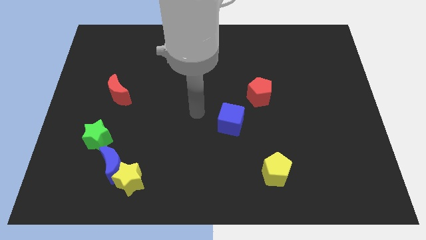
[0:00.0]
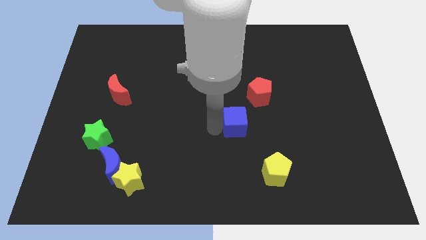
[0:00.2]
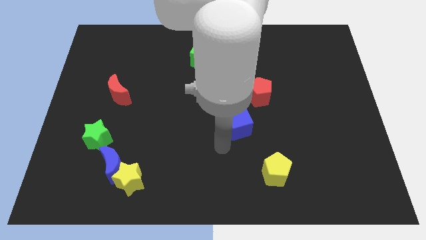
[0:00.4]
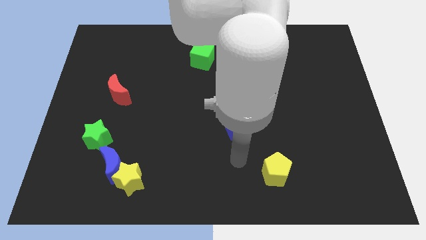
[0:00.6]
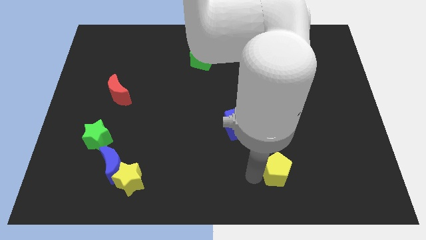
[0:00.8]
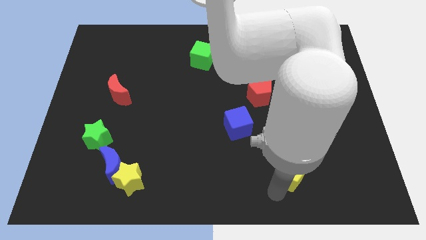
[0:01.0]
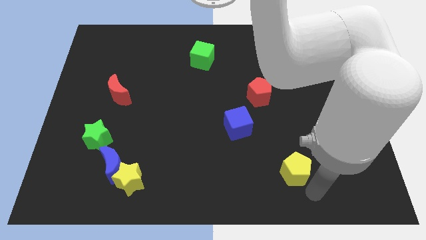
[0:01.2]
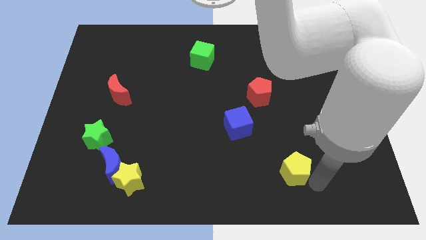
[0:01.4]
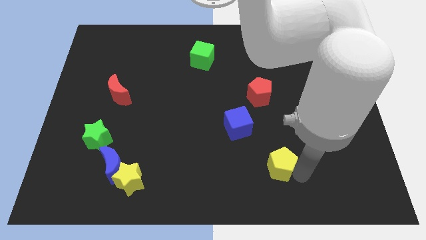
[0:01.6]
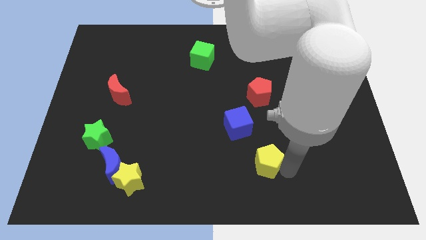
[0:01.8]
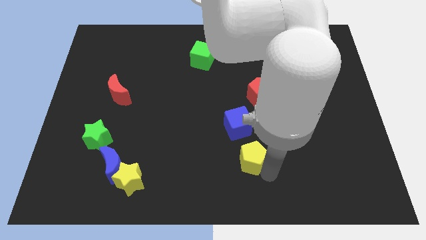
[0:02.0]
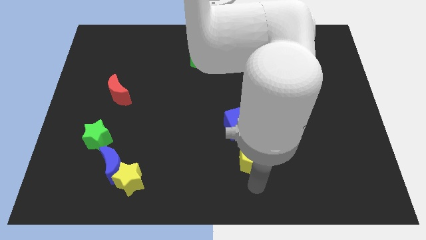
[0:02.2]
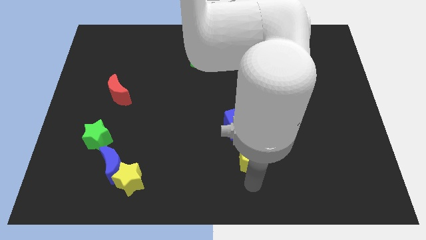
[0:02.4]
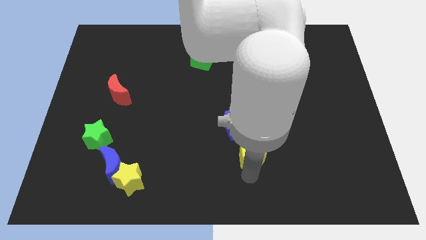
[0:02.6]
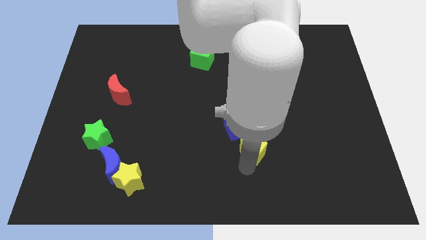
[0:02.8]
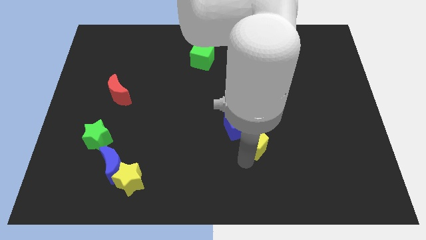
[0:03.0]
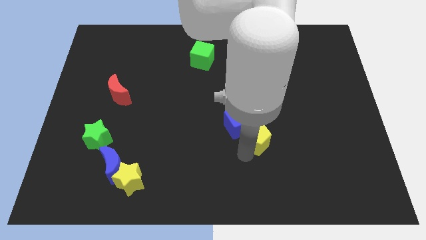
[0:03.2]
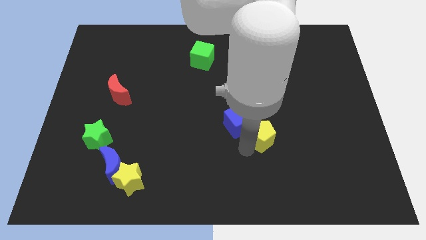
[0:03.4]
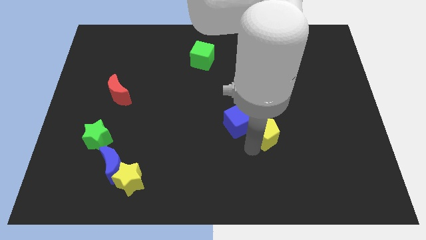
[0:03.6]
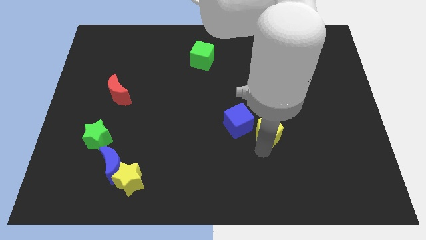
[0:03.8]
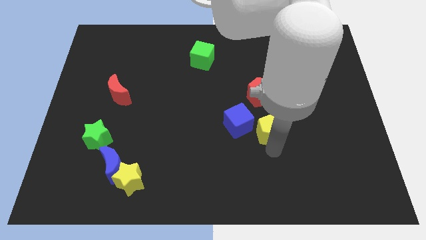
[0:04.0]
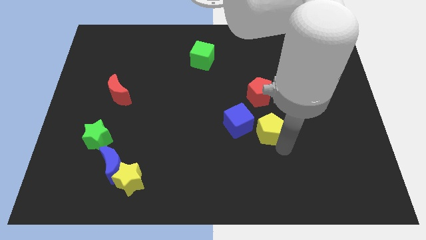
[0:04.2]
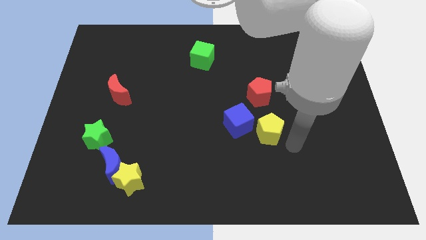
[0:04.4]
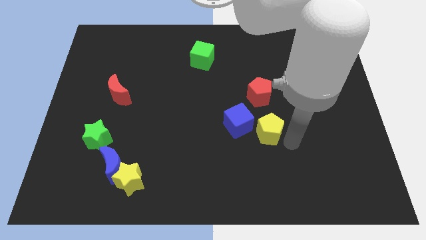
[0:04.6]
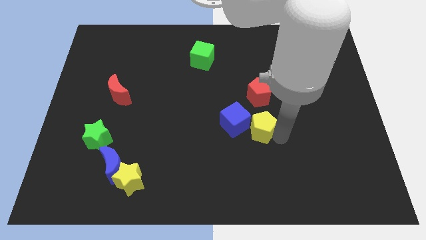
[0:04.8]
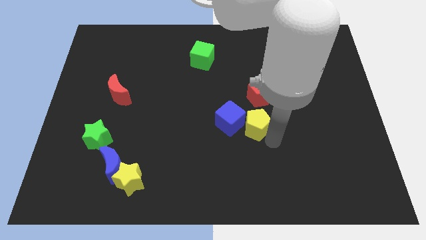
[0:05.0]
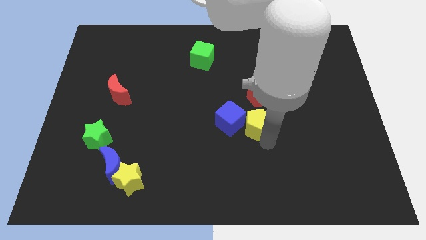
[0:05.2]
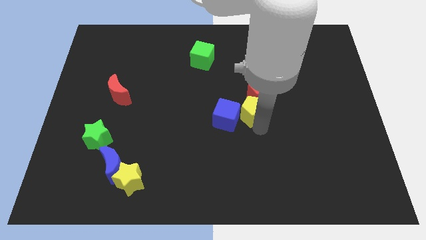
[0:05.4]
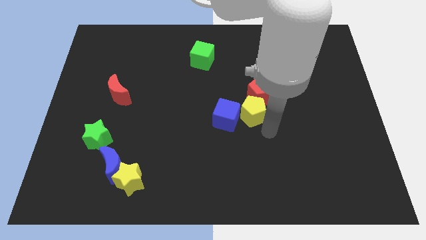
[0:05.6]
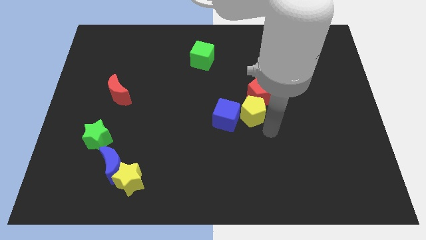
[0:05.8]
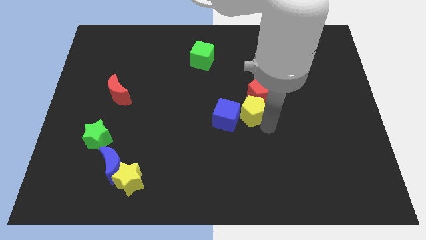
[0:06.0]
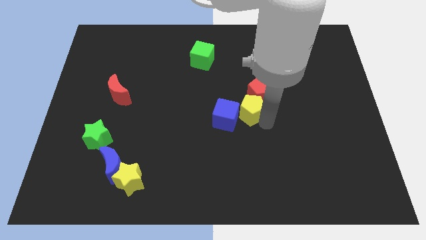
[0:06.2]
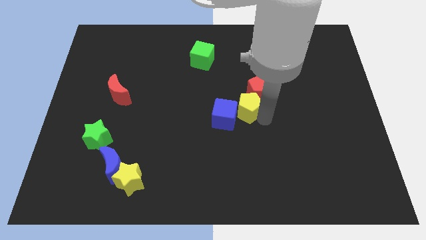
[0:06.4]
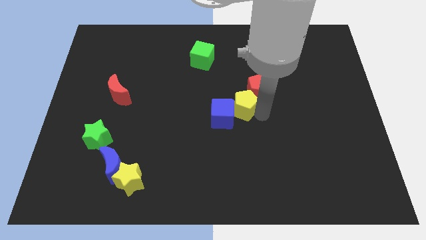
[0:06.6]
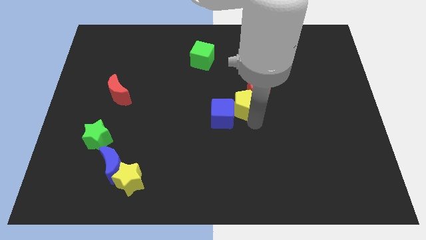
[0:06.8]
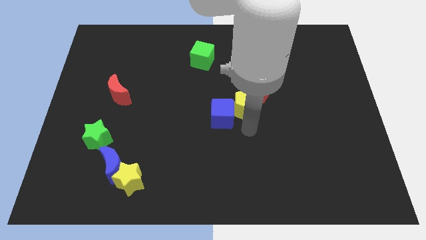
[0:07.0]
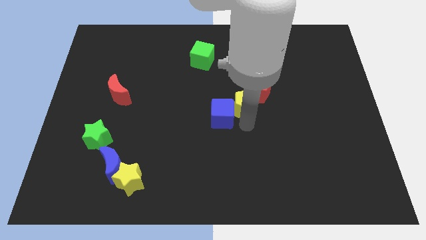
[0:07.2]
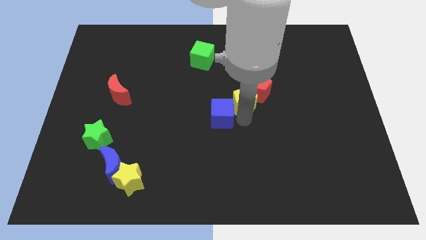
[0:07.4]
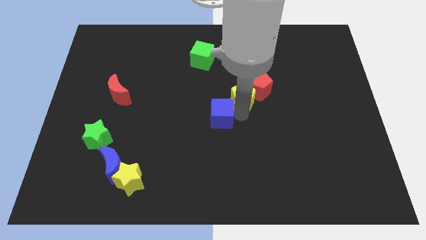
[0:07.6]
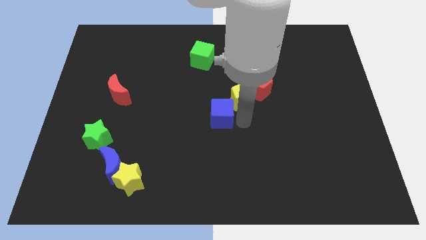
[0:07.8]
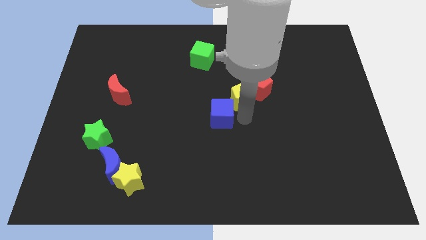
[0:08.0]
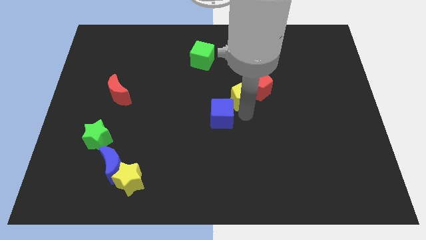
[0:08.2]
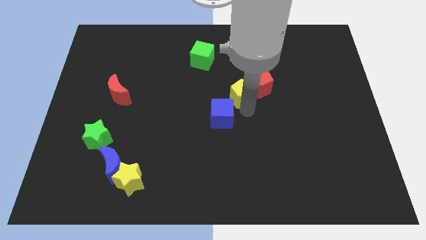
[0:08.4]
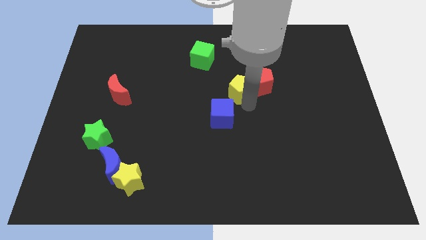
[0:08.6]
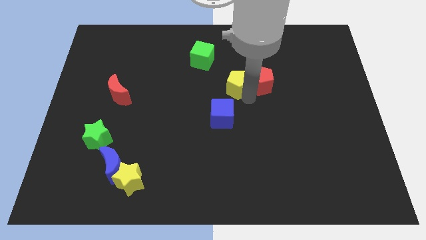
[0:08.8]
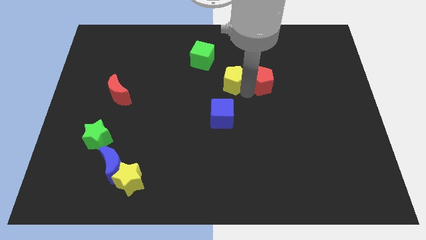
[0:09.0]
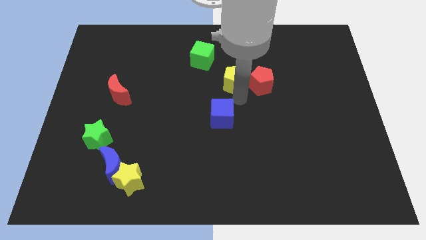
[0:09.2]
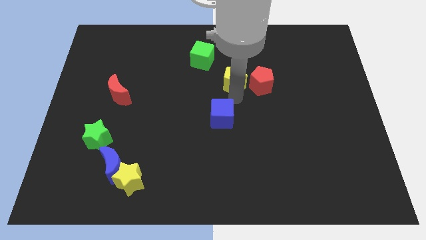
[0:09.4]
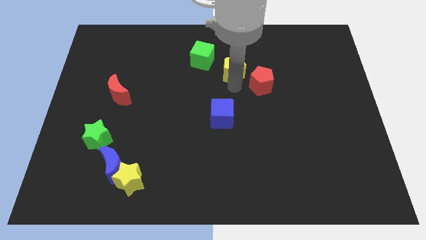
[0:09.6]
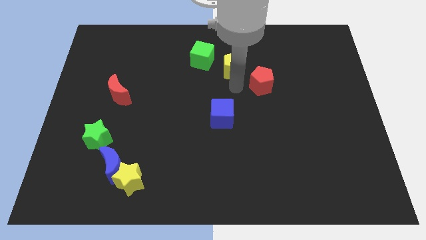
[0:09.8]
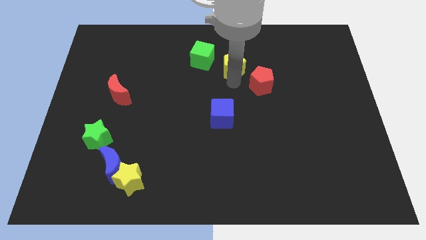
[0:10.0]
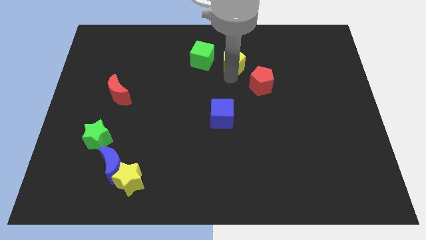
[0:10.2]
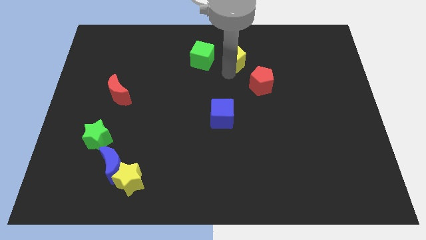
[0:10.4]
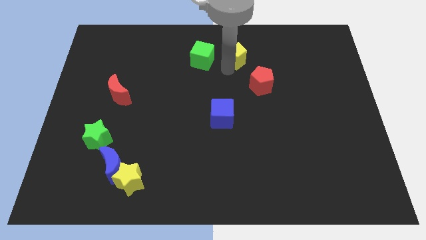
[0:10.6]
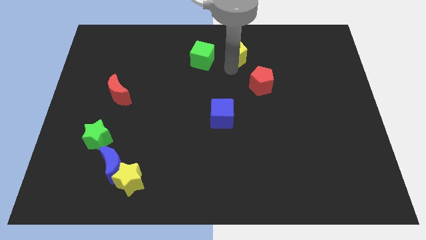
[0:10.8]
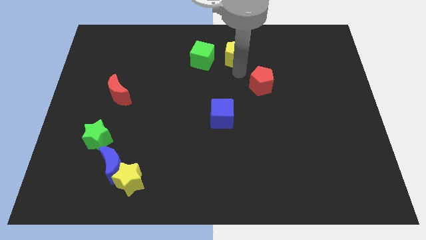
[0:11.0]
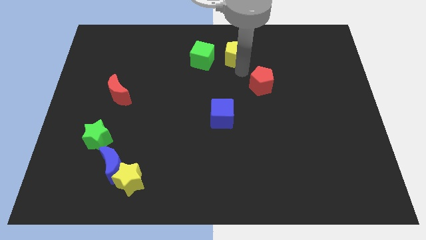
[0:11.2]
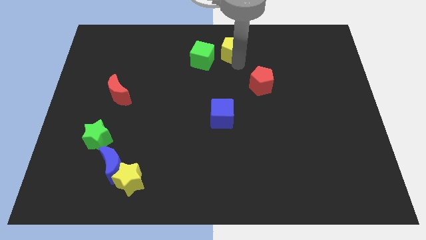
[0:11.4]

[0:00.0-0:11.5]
put the yellow pentagon to the top side

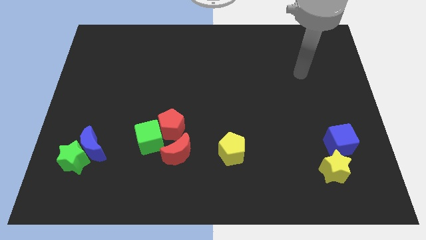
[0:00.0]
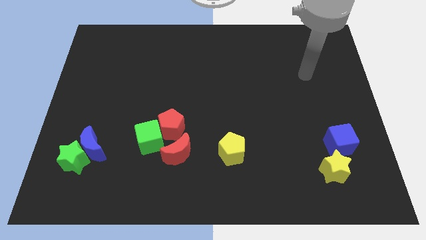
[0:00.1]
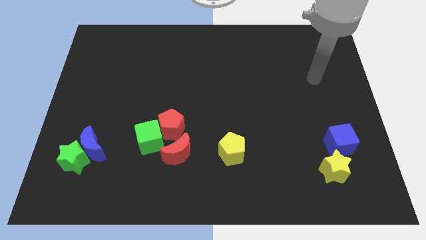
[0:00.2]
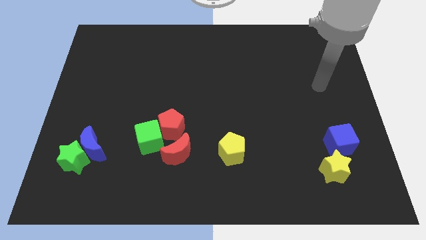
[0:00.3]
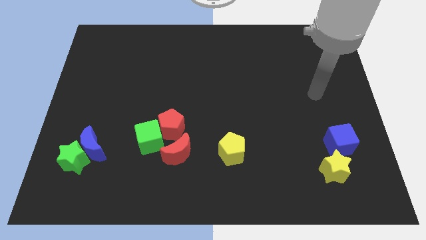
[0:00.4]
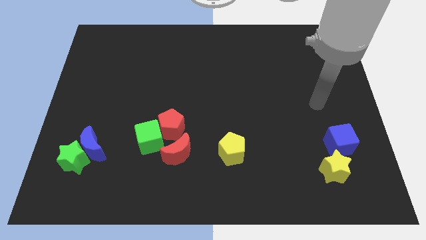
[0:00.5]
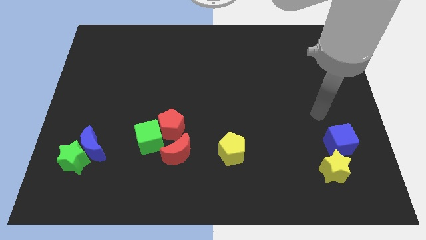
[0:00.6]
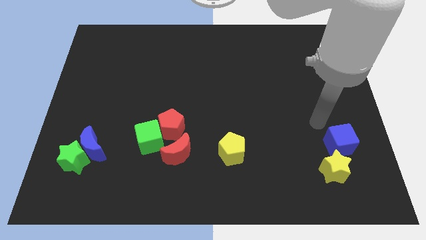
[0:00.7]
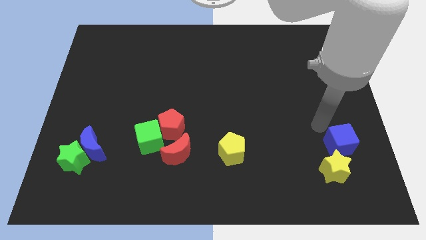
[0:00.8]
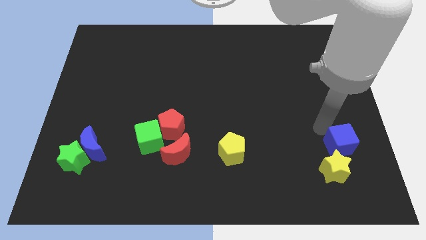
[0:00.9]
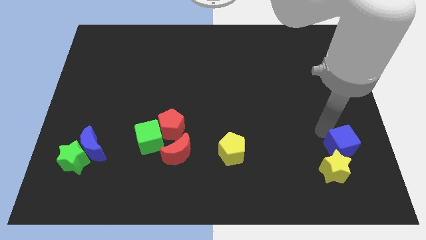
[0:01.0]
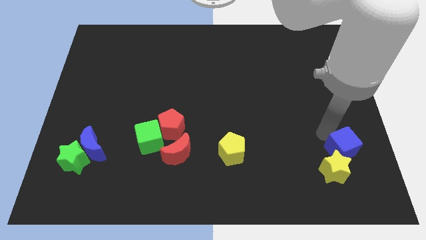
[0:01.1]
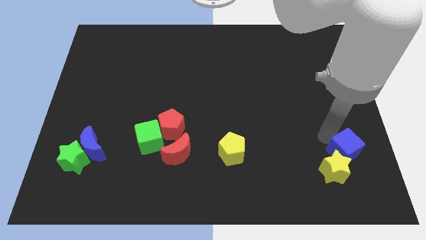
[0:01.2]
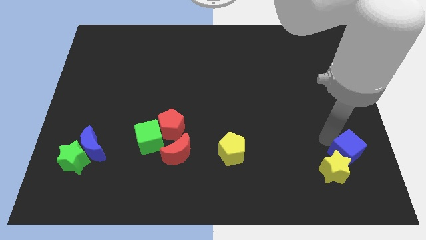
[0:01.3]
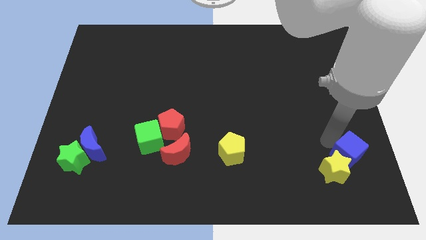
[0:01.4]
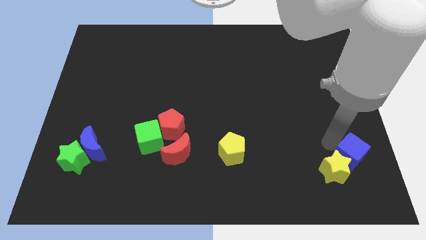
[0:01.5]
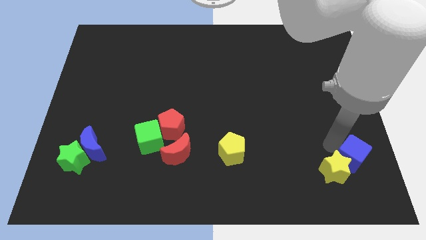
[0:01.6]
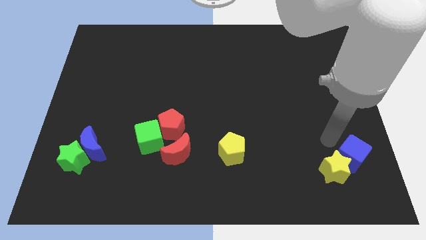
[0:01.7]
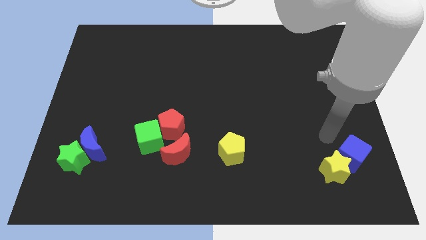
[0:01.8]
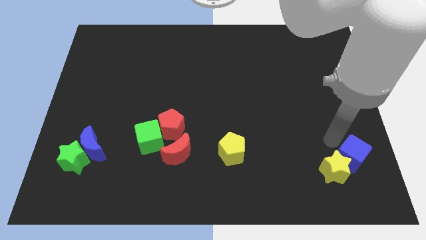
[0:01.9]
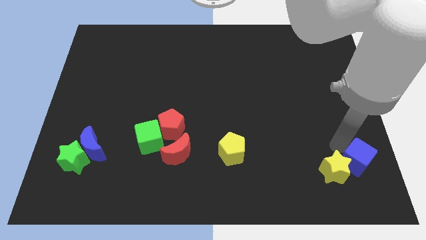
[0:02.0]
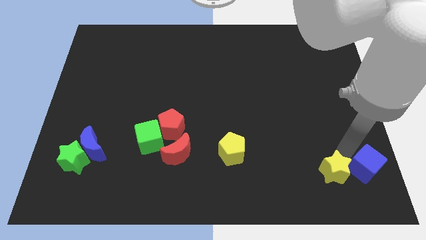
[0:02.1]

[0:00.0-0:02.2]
push the blue cube to the bottom right of the board
